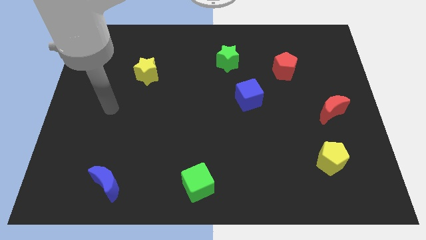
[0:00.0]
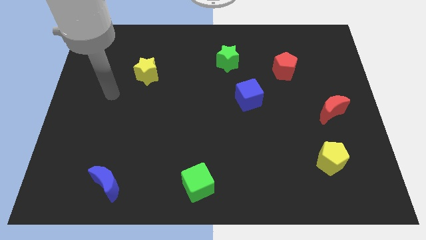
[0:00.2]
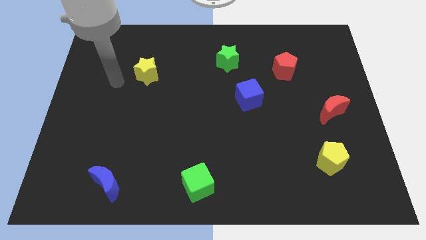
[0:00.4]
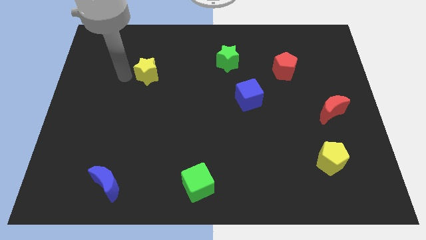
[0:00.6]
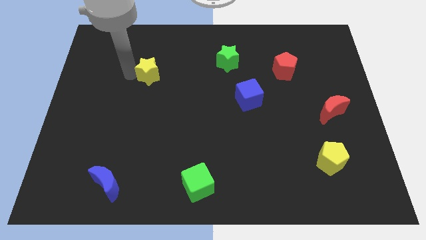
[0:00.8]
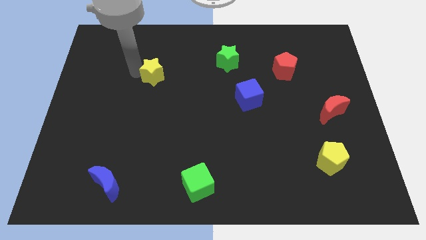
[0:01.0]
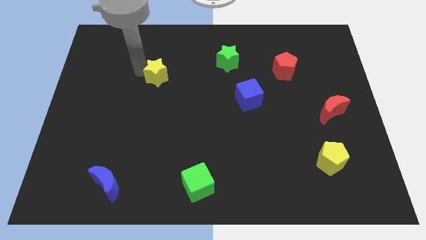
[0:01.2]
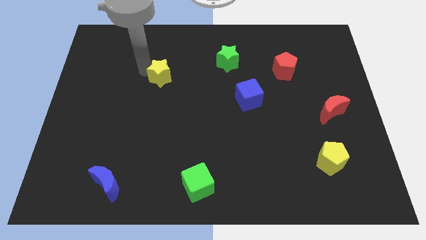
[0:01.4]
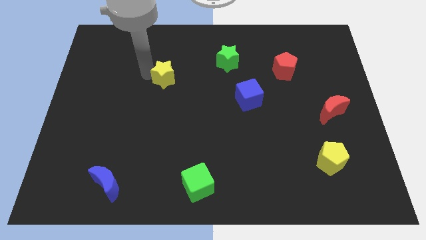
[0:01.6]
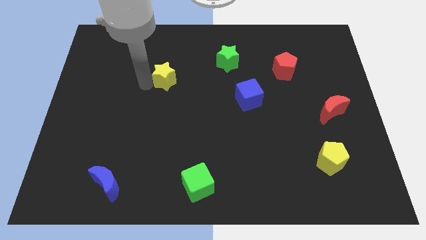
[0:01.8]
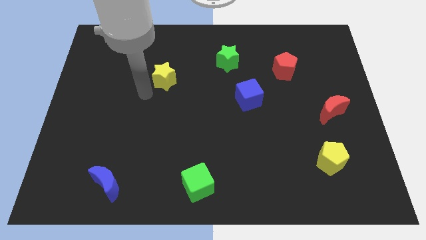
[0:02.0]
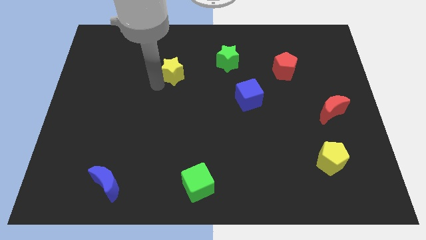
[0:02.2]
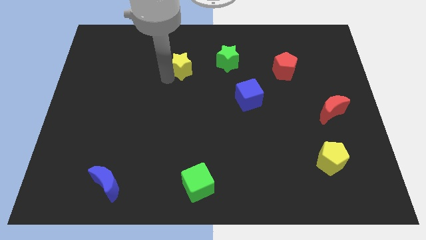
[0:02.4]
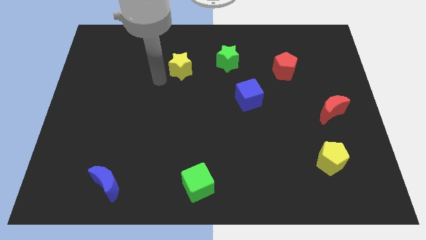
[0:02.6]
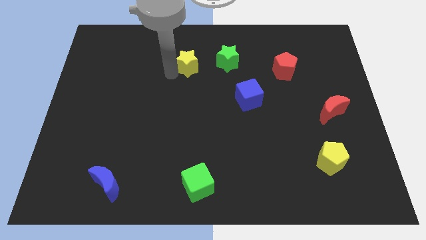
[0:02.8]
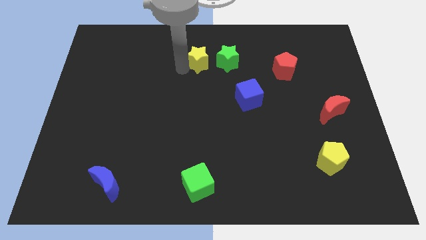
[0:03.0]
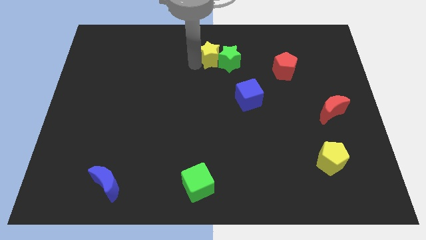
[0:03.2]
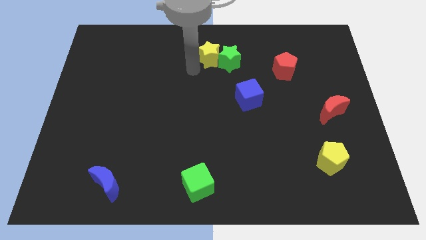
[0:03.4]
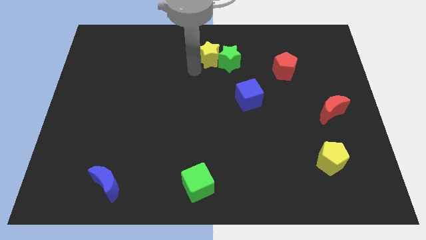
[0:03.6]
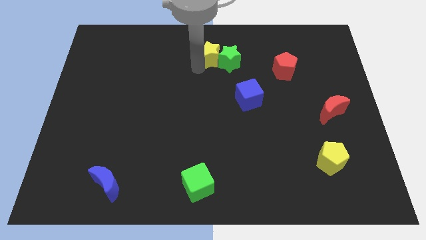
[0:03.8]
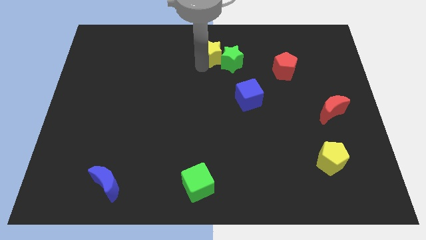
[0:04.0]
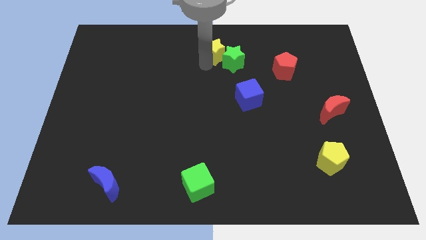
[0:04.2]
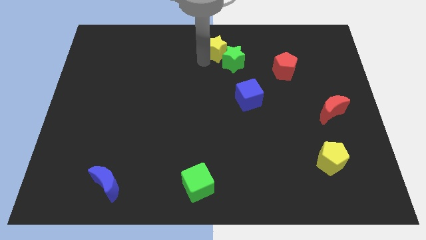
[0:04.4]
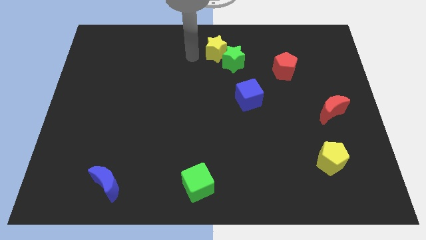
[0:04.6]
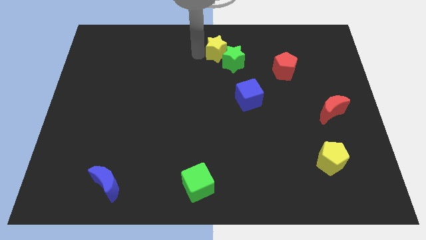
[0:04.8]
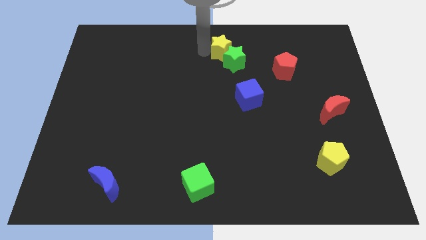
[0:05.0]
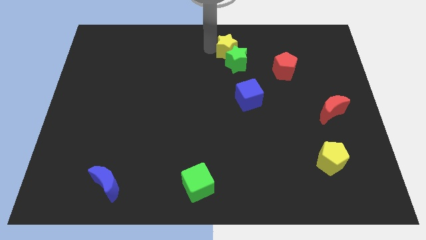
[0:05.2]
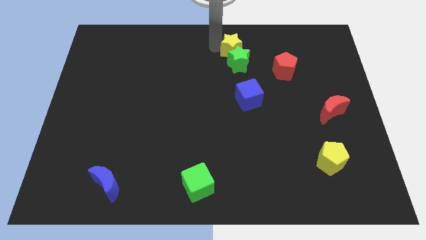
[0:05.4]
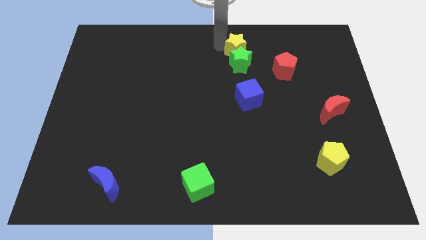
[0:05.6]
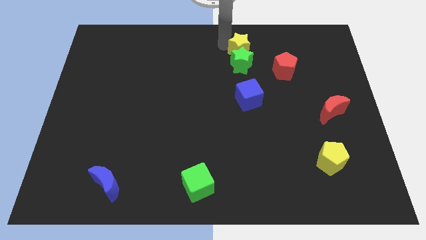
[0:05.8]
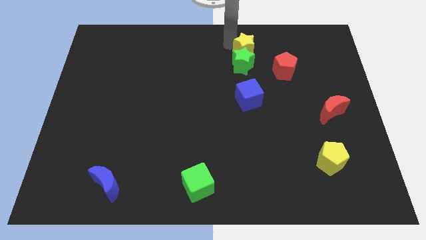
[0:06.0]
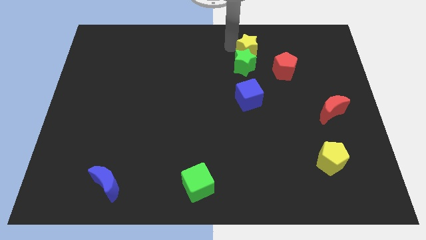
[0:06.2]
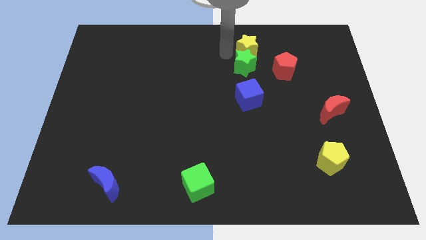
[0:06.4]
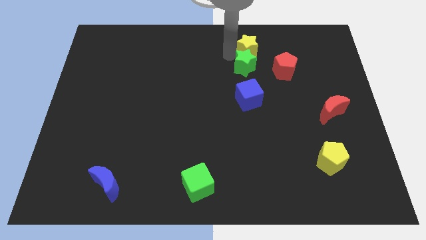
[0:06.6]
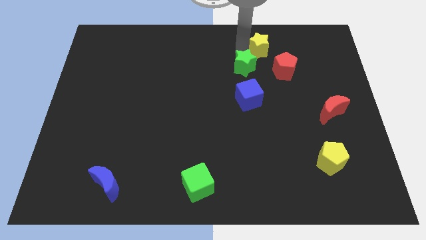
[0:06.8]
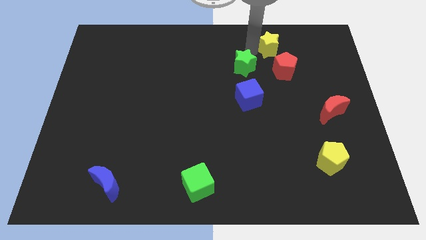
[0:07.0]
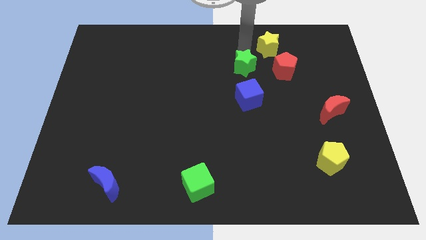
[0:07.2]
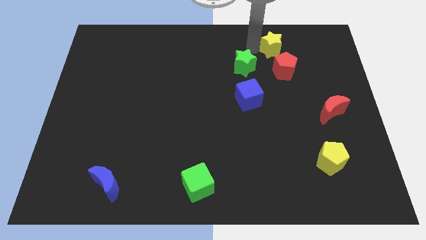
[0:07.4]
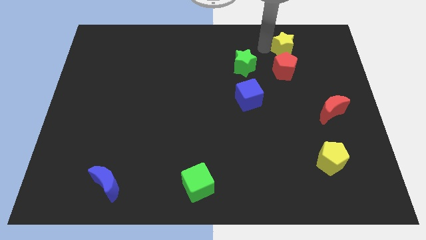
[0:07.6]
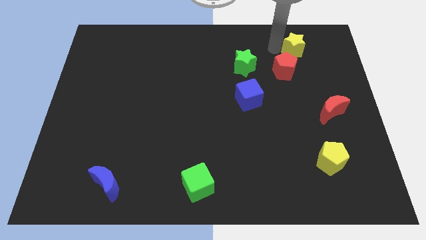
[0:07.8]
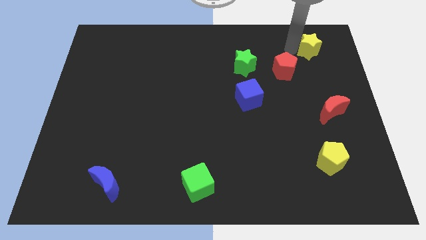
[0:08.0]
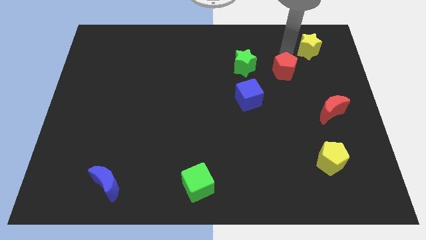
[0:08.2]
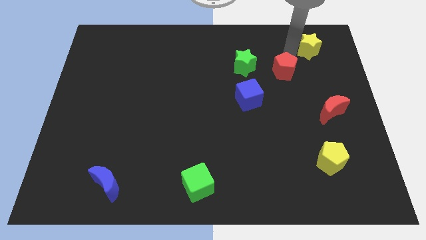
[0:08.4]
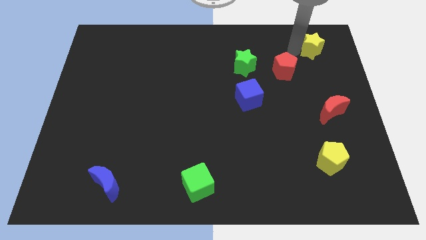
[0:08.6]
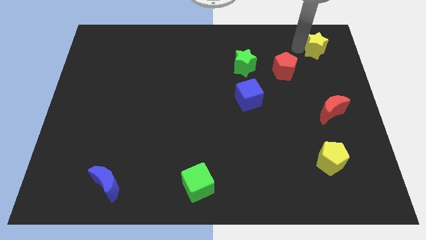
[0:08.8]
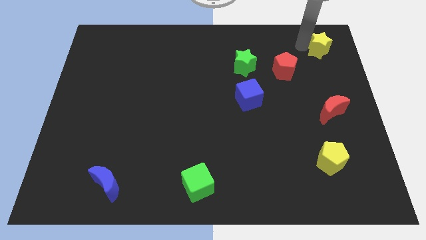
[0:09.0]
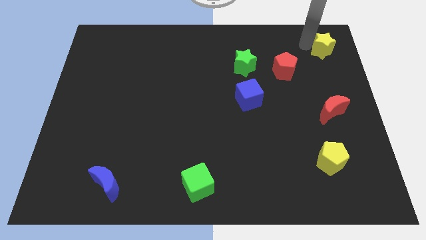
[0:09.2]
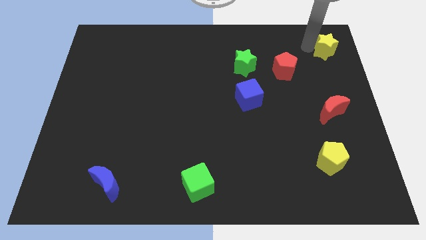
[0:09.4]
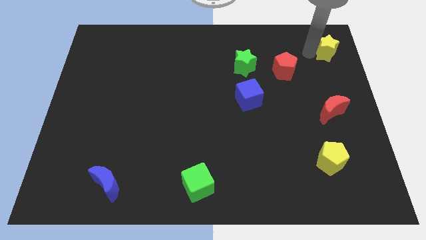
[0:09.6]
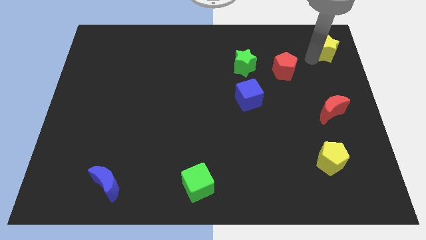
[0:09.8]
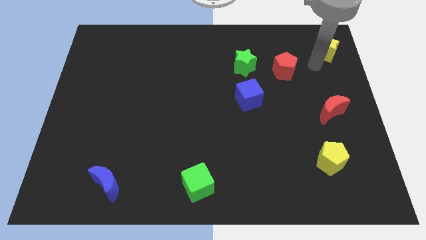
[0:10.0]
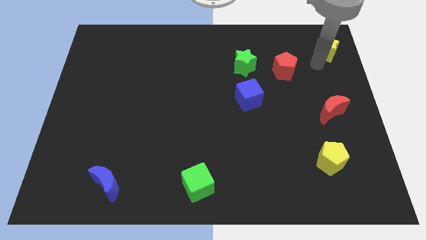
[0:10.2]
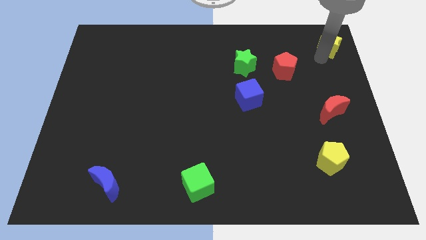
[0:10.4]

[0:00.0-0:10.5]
slide the yellow star to the top right

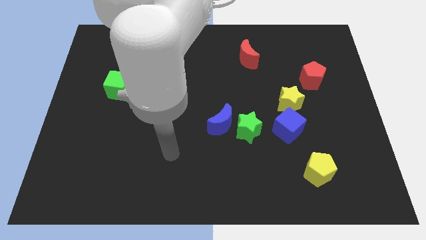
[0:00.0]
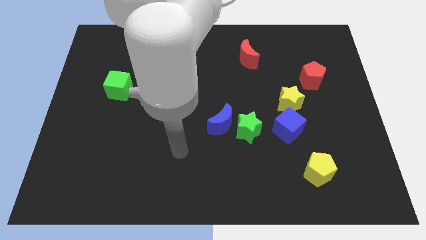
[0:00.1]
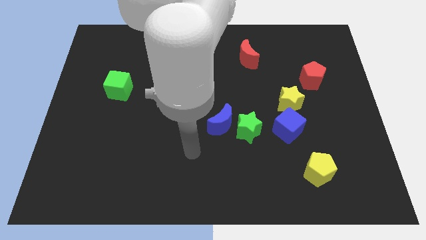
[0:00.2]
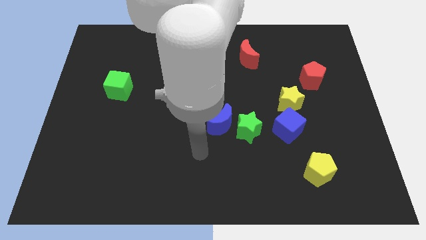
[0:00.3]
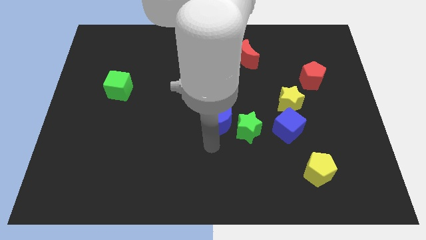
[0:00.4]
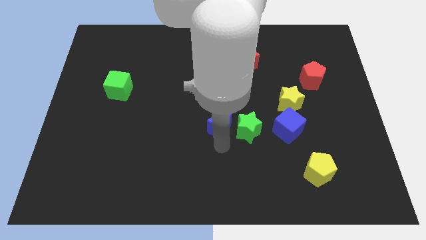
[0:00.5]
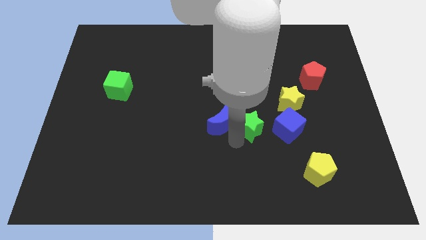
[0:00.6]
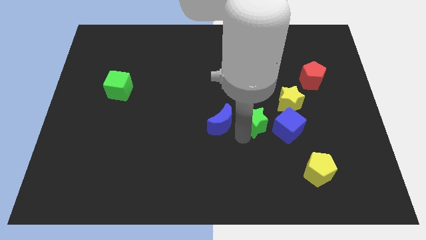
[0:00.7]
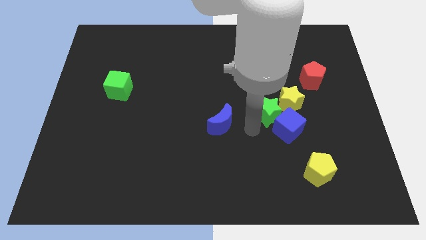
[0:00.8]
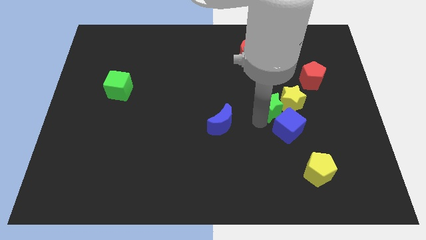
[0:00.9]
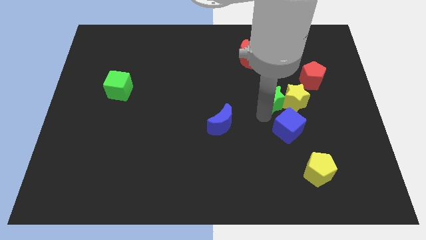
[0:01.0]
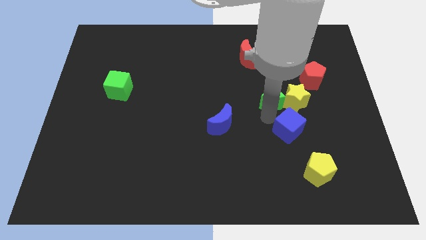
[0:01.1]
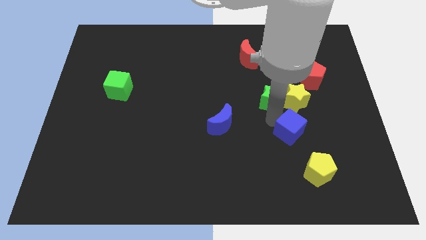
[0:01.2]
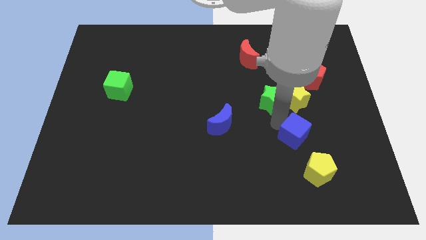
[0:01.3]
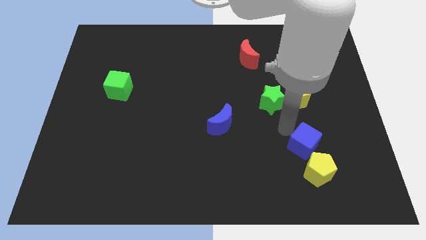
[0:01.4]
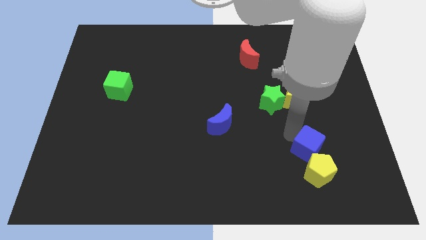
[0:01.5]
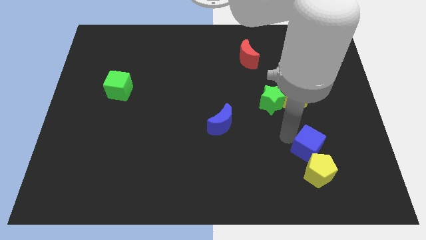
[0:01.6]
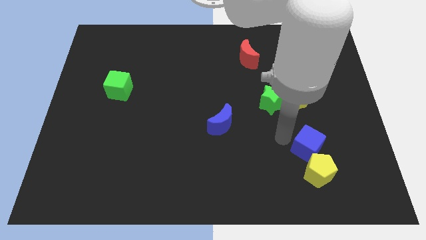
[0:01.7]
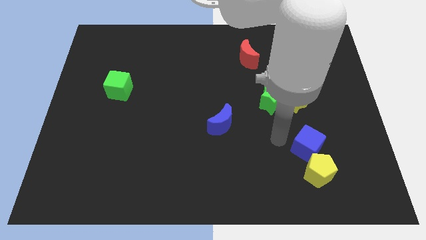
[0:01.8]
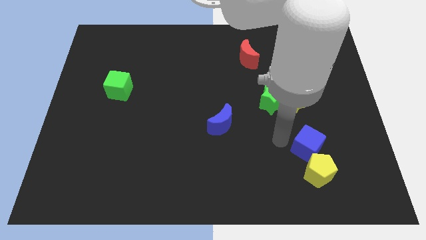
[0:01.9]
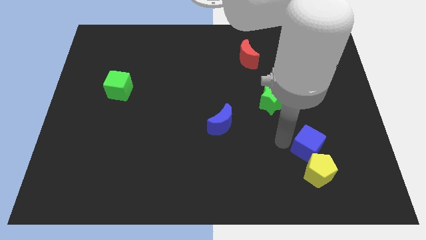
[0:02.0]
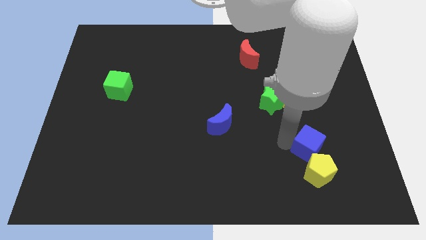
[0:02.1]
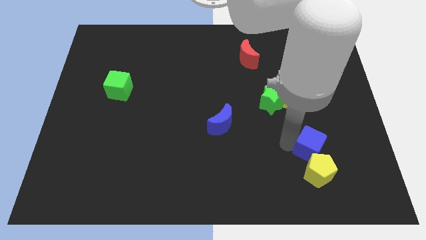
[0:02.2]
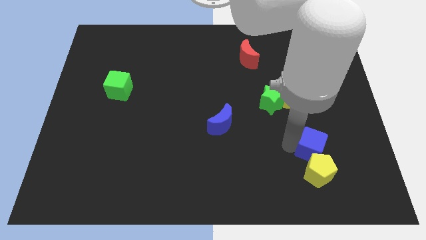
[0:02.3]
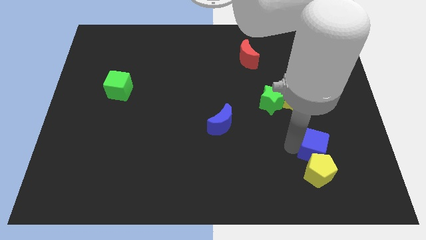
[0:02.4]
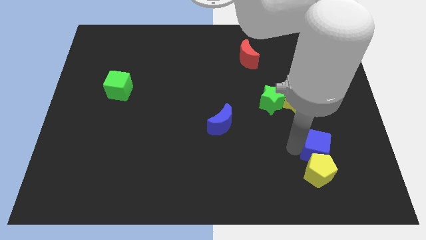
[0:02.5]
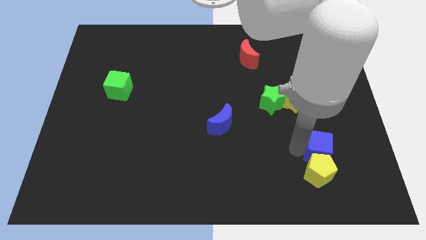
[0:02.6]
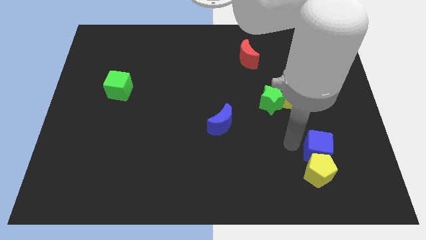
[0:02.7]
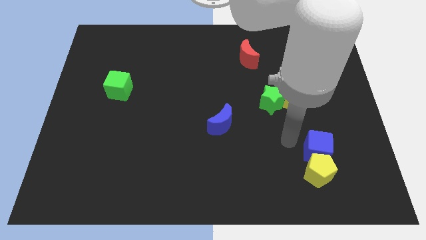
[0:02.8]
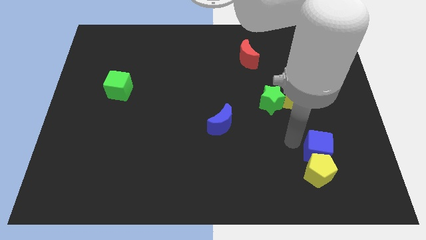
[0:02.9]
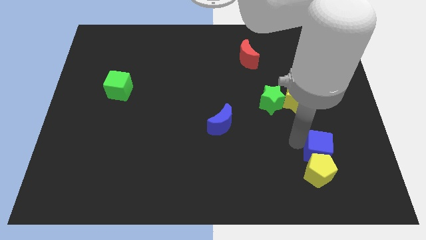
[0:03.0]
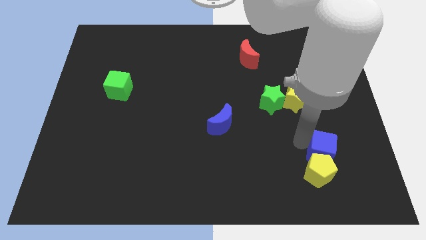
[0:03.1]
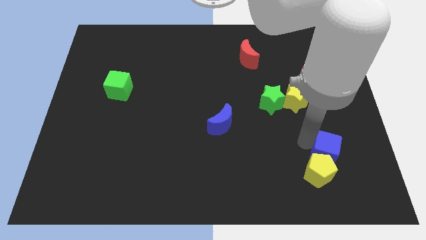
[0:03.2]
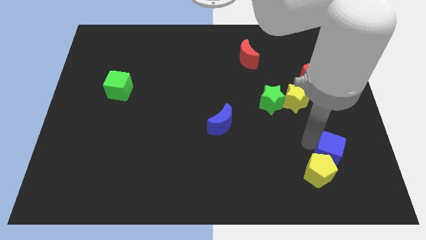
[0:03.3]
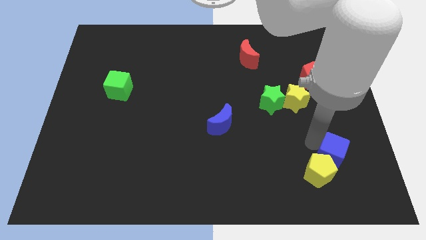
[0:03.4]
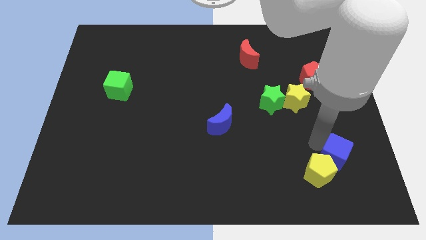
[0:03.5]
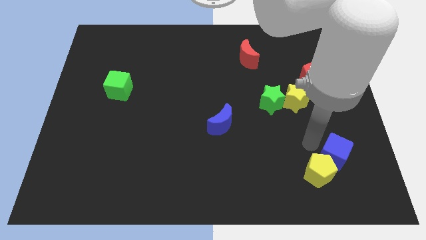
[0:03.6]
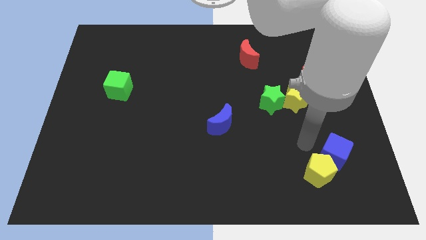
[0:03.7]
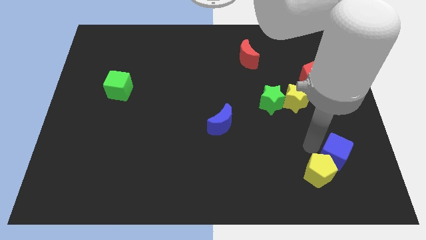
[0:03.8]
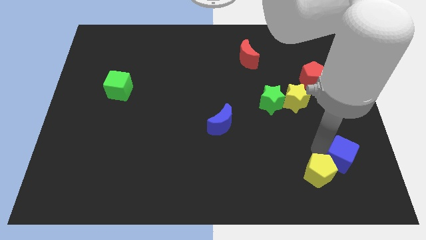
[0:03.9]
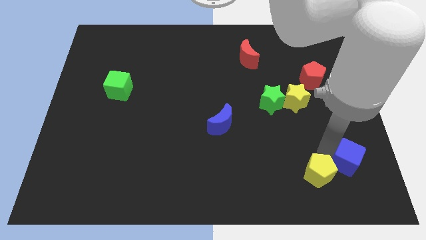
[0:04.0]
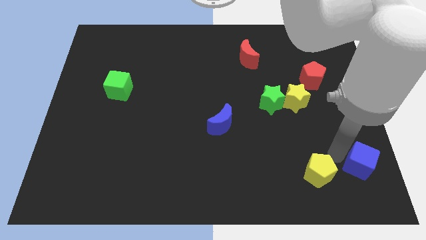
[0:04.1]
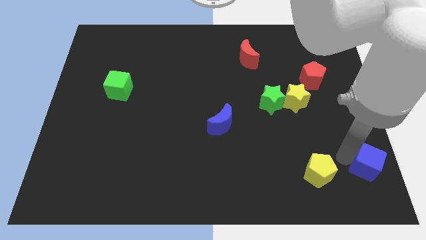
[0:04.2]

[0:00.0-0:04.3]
put the blue cube to the bottom right of the board
